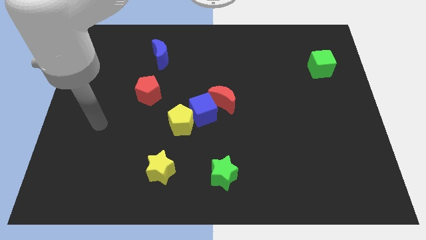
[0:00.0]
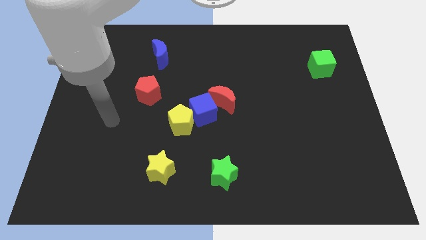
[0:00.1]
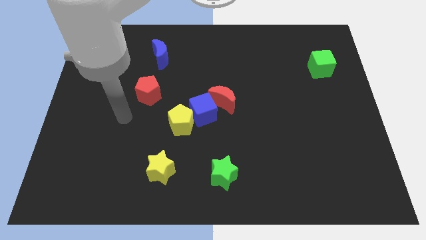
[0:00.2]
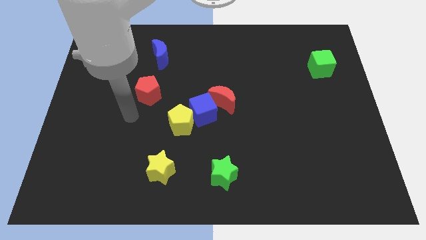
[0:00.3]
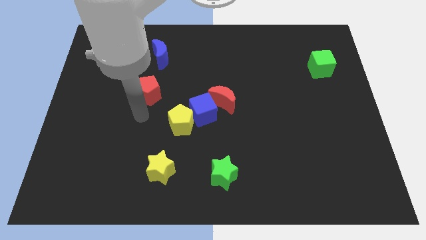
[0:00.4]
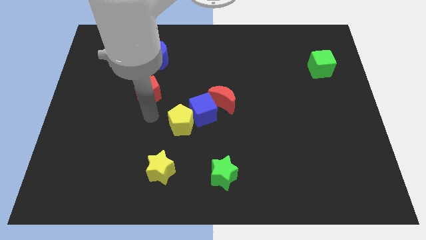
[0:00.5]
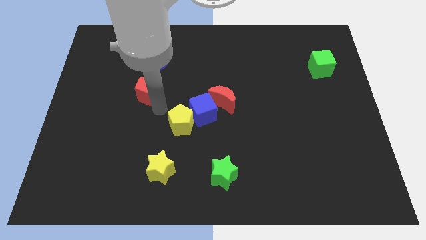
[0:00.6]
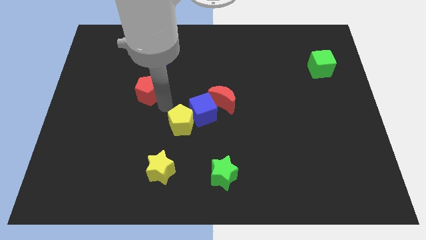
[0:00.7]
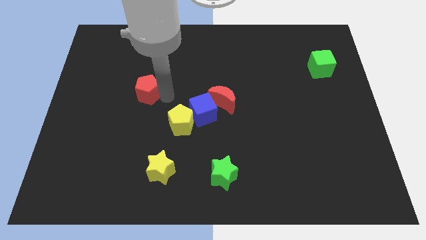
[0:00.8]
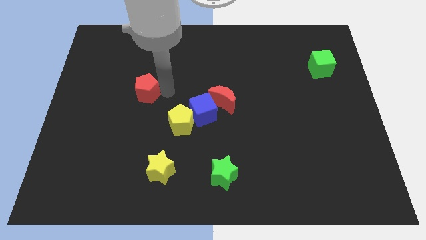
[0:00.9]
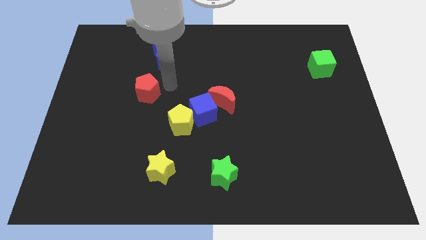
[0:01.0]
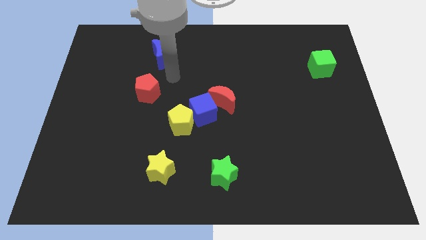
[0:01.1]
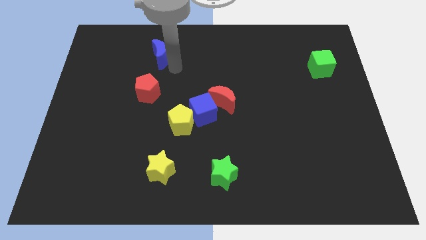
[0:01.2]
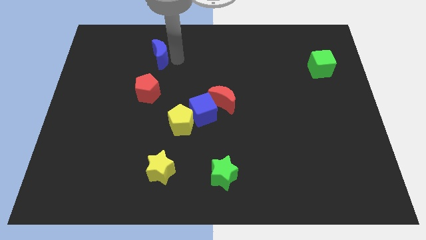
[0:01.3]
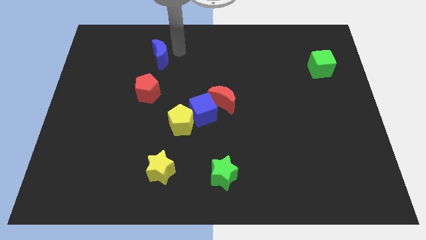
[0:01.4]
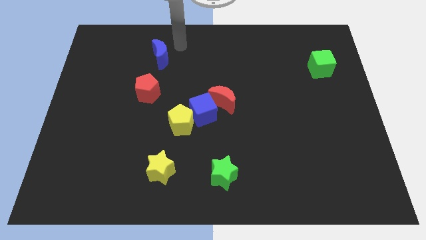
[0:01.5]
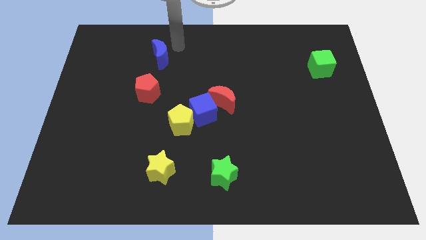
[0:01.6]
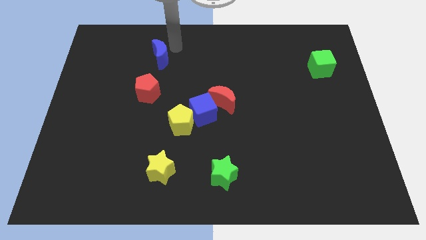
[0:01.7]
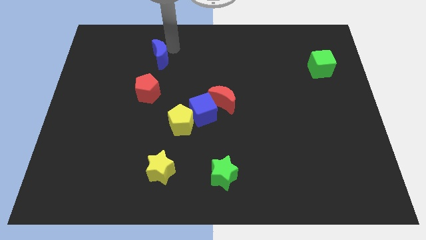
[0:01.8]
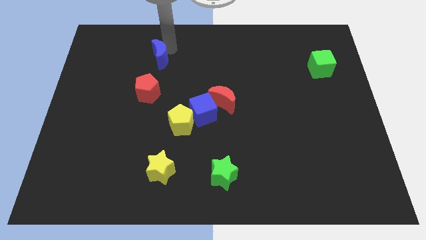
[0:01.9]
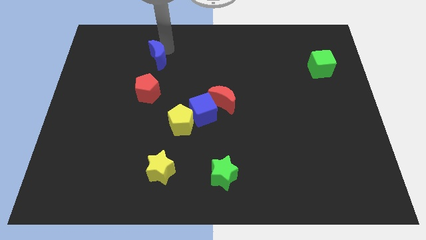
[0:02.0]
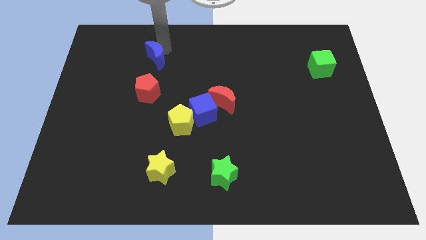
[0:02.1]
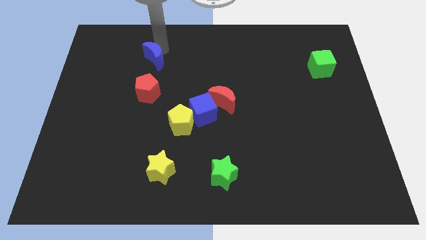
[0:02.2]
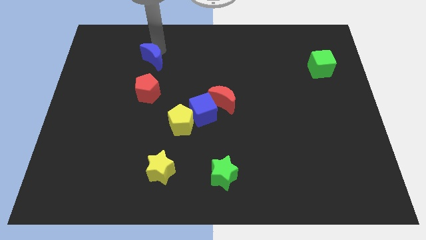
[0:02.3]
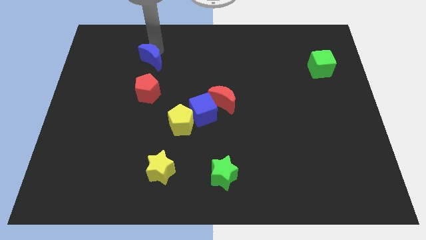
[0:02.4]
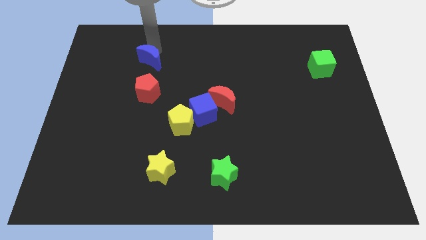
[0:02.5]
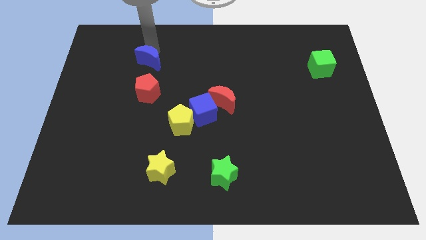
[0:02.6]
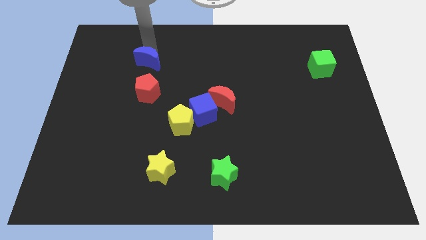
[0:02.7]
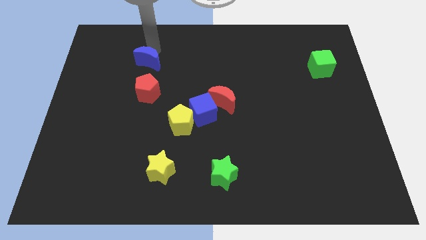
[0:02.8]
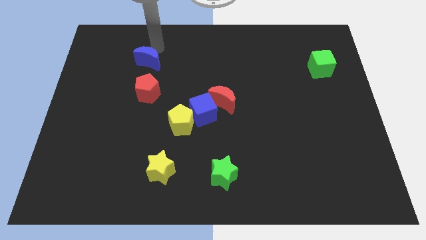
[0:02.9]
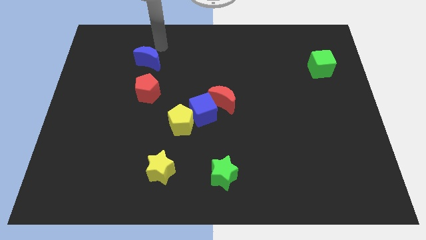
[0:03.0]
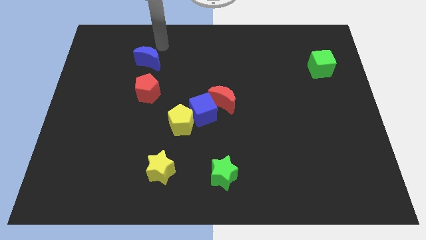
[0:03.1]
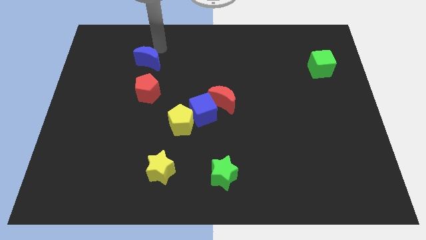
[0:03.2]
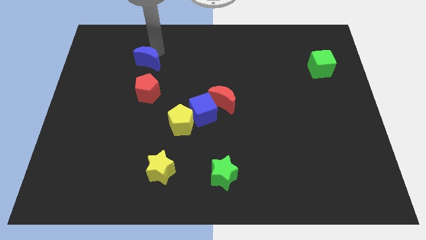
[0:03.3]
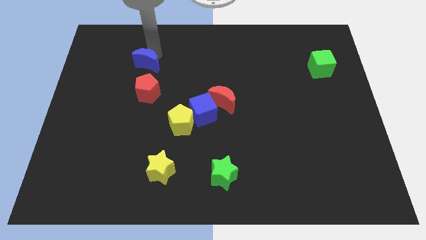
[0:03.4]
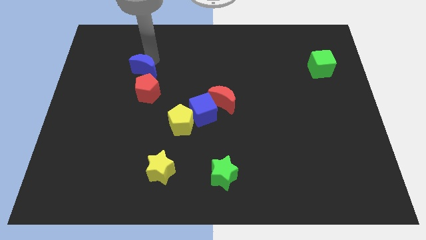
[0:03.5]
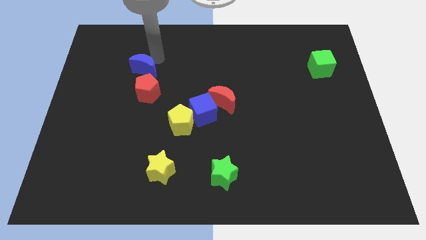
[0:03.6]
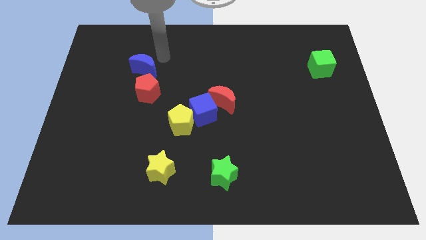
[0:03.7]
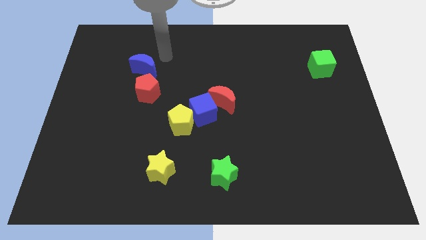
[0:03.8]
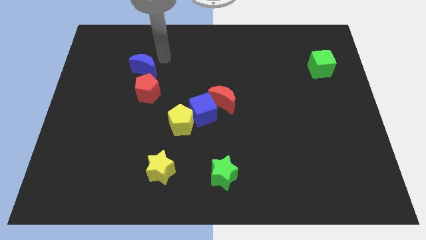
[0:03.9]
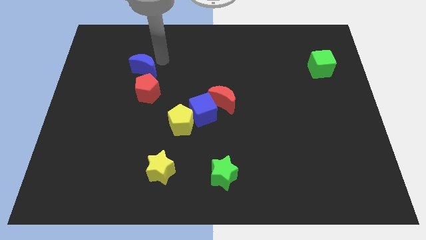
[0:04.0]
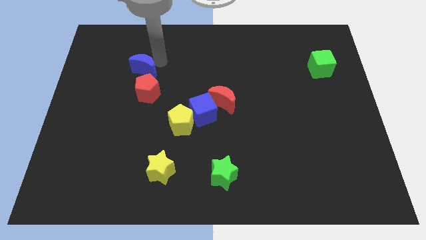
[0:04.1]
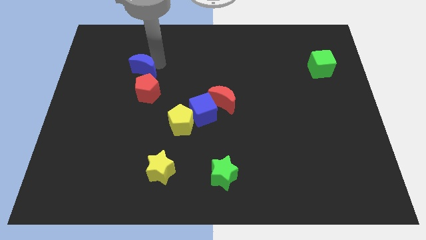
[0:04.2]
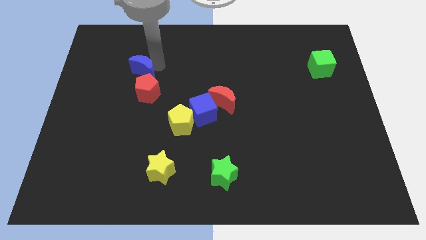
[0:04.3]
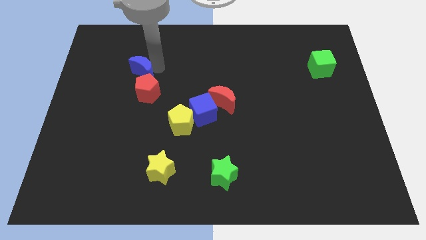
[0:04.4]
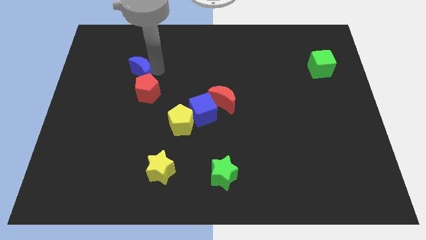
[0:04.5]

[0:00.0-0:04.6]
move the blue moon downwards and then left slightly

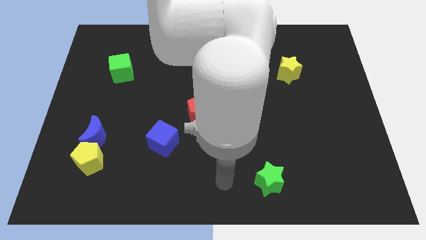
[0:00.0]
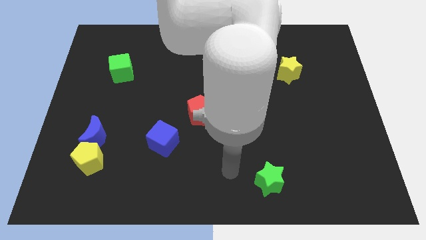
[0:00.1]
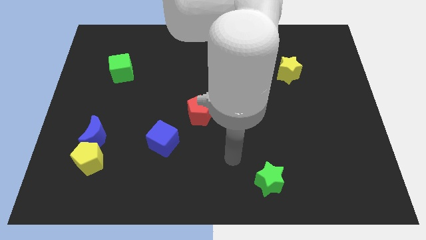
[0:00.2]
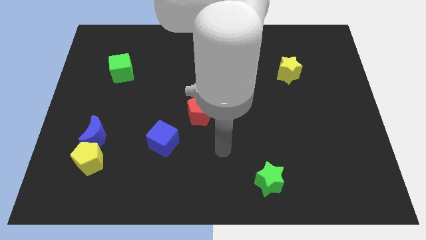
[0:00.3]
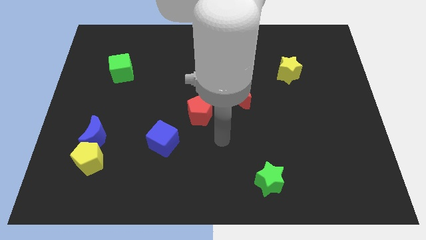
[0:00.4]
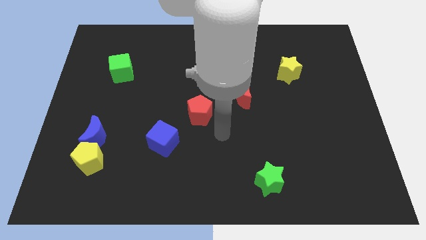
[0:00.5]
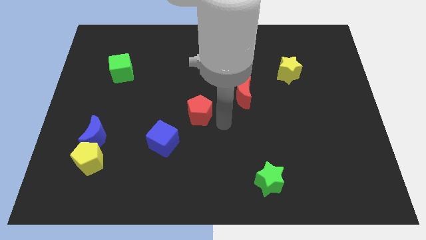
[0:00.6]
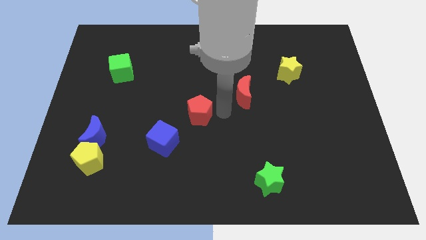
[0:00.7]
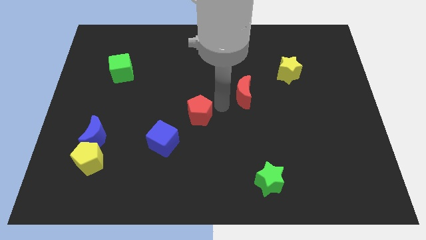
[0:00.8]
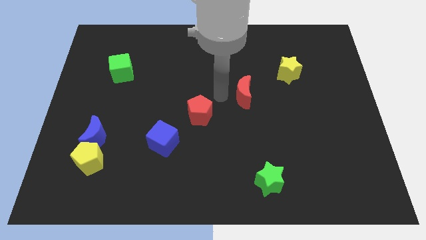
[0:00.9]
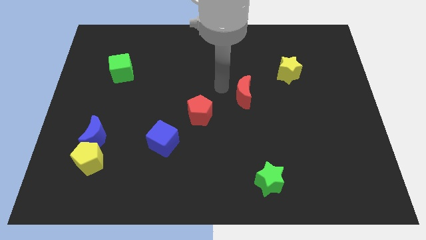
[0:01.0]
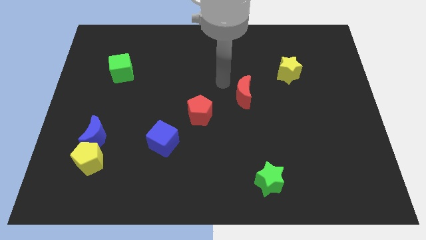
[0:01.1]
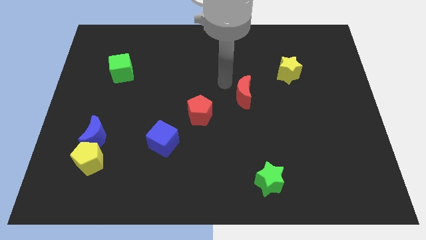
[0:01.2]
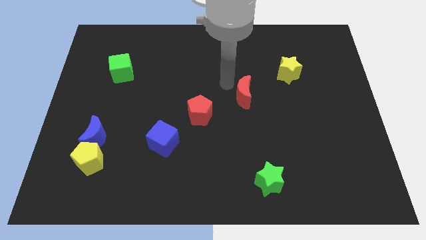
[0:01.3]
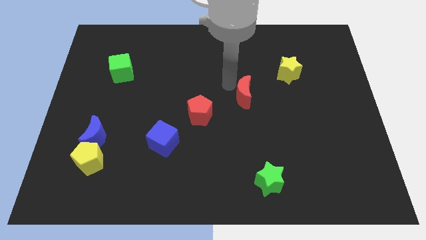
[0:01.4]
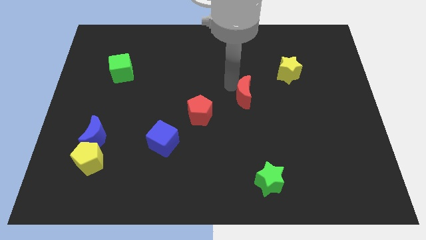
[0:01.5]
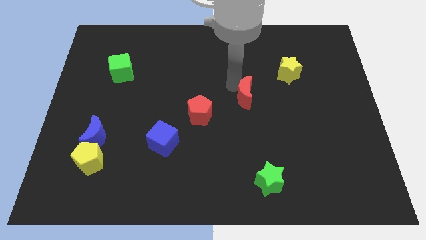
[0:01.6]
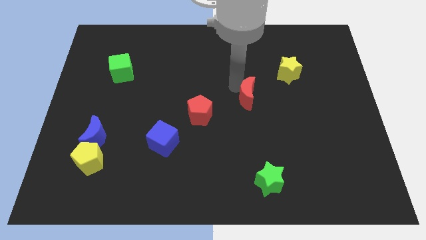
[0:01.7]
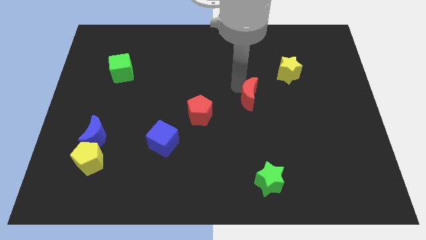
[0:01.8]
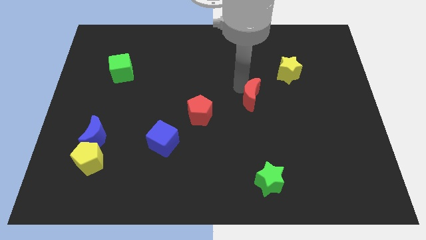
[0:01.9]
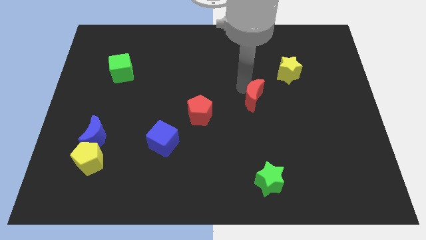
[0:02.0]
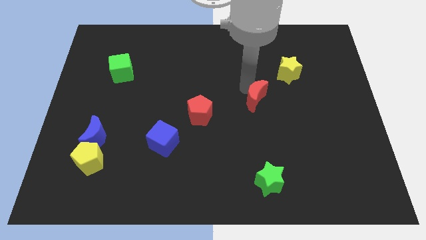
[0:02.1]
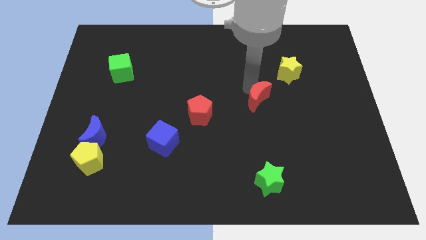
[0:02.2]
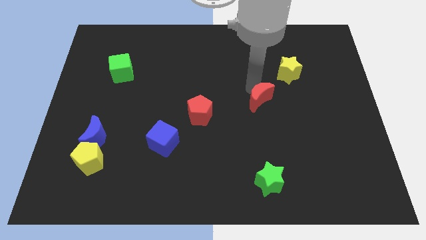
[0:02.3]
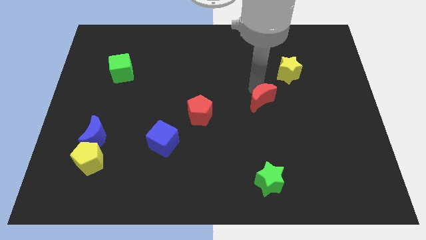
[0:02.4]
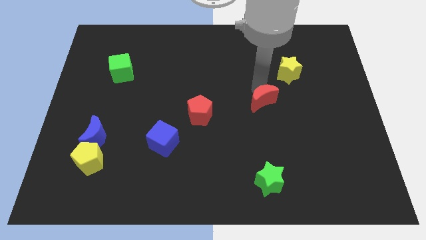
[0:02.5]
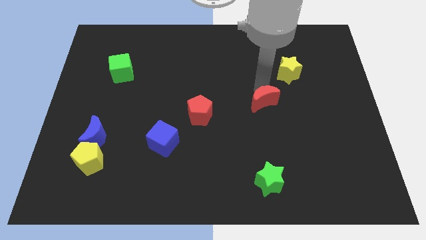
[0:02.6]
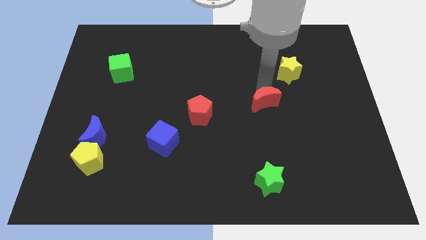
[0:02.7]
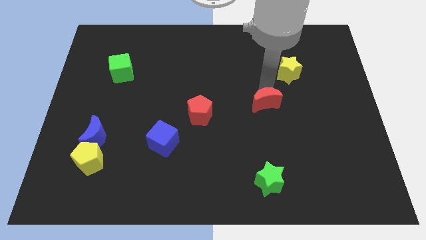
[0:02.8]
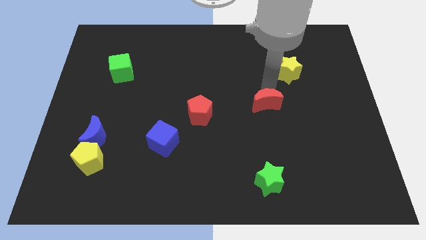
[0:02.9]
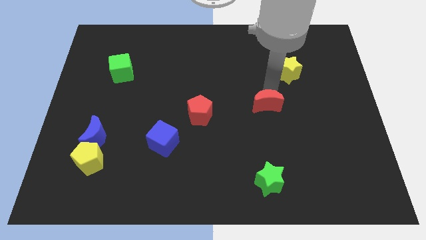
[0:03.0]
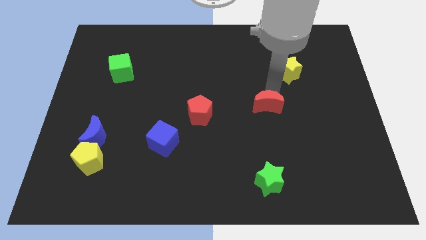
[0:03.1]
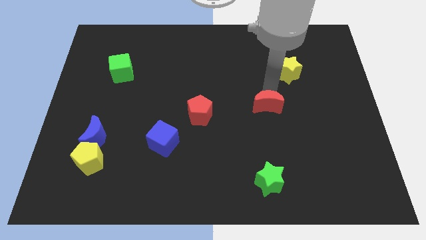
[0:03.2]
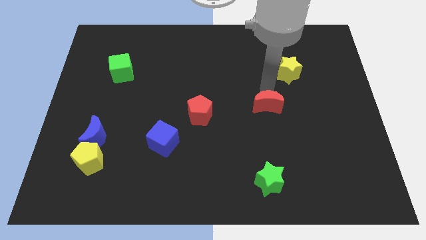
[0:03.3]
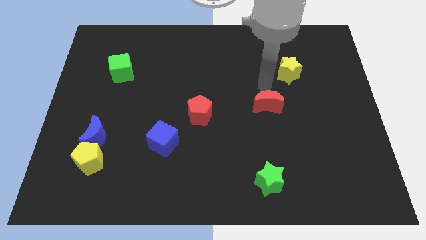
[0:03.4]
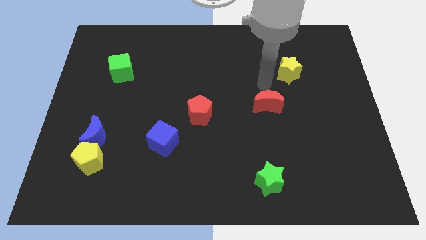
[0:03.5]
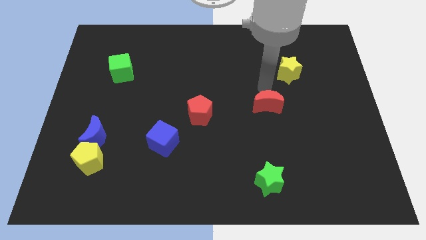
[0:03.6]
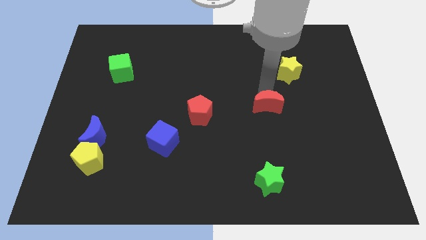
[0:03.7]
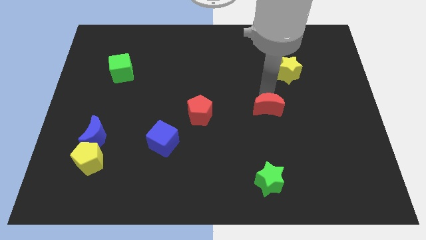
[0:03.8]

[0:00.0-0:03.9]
slide the red moon downwards and to the right a little bit
